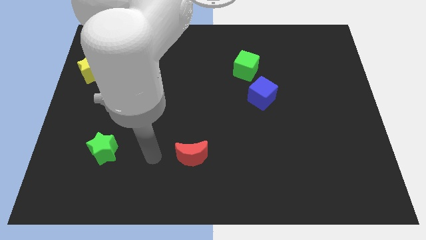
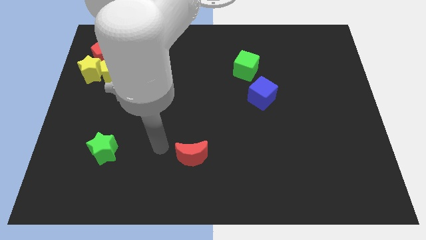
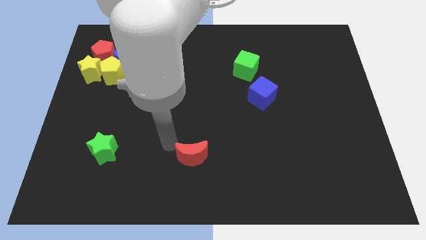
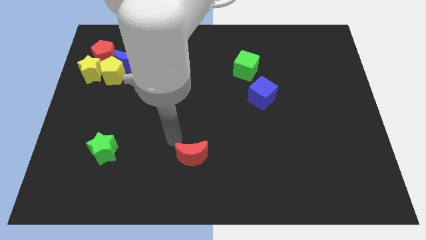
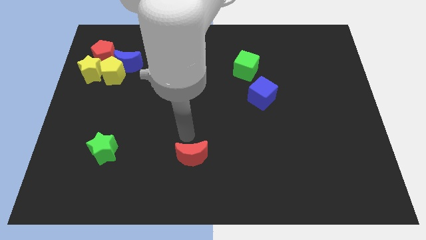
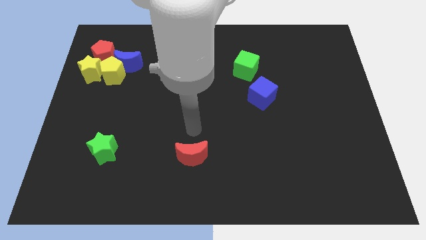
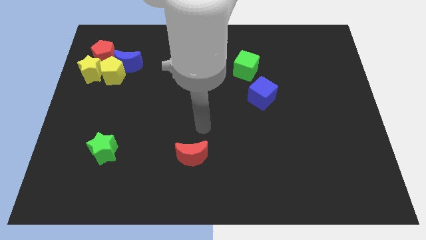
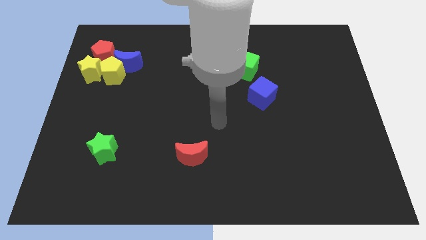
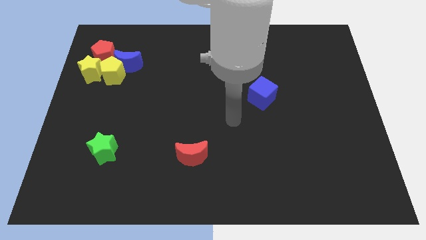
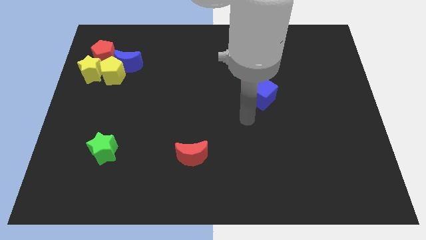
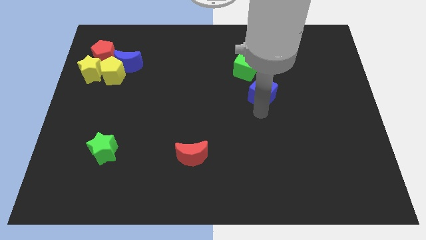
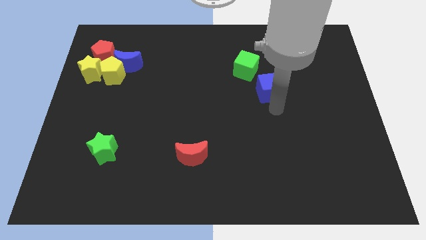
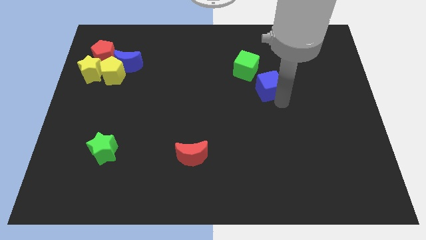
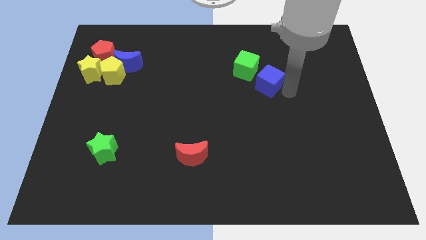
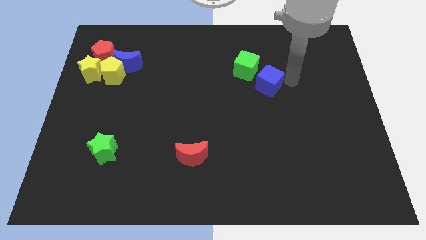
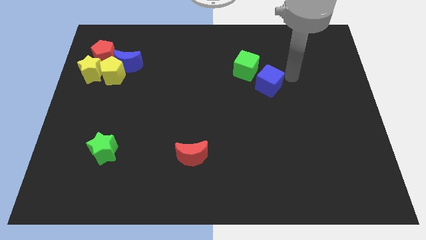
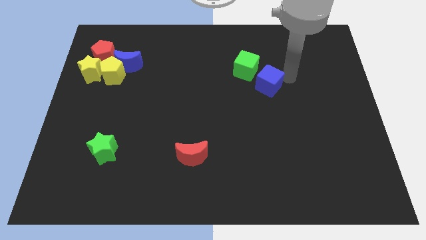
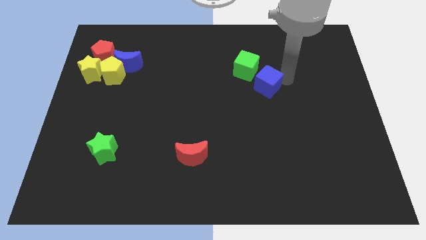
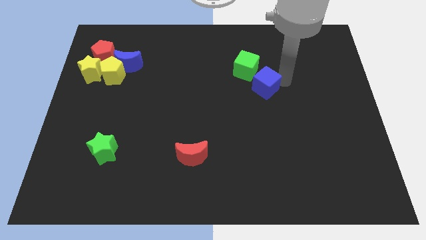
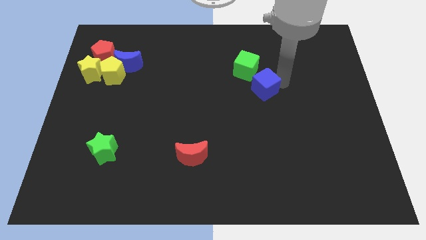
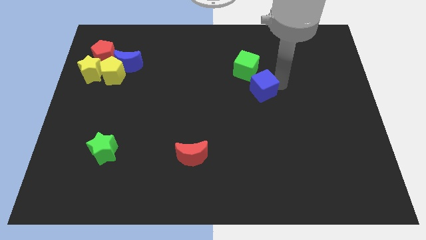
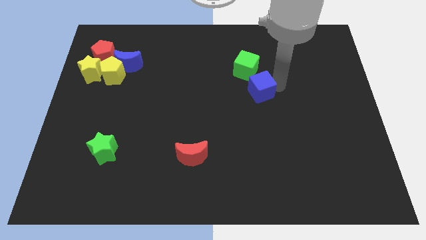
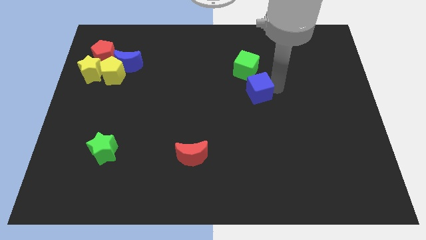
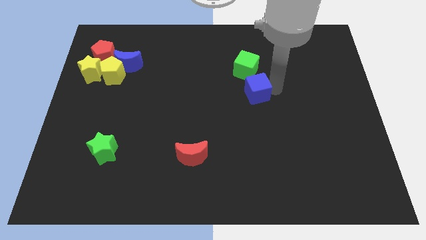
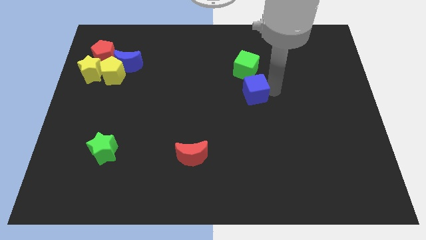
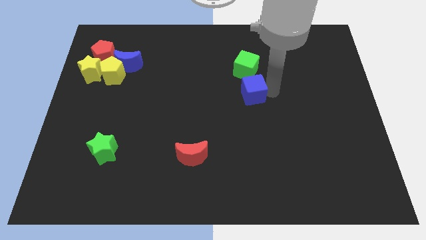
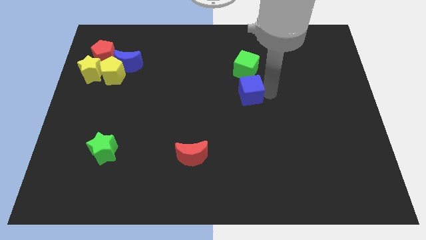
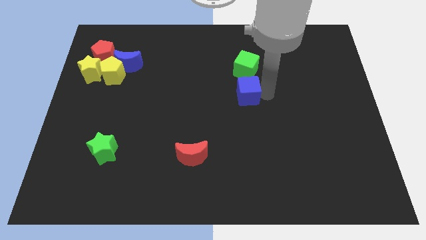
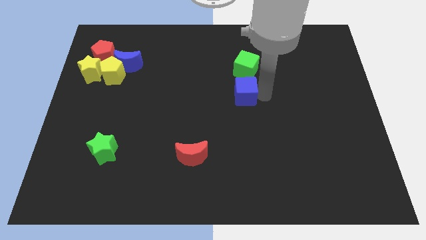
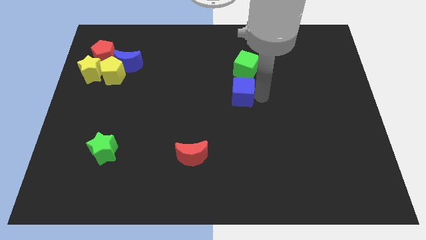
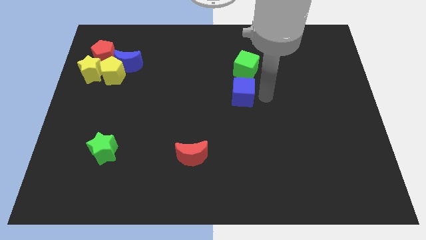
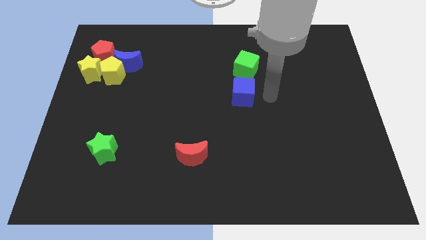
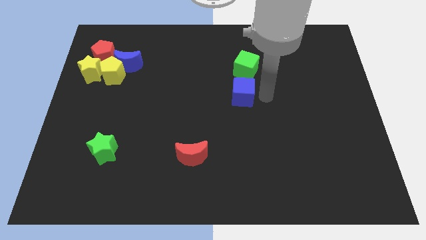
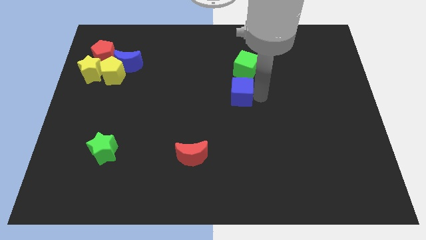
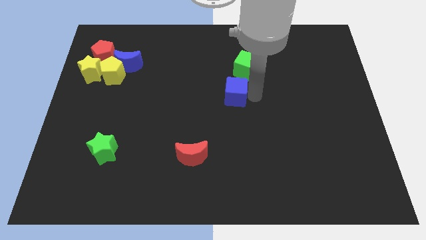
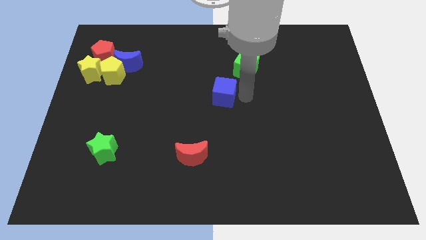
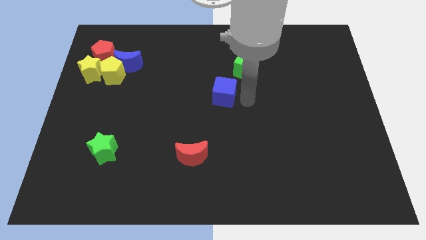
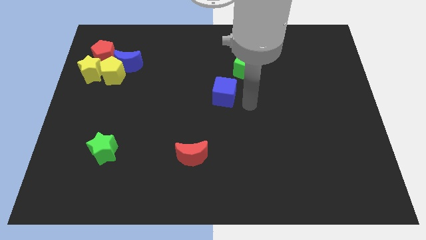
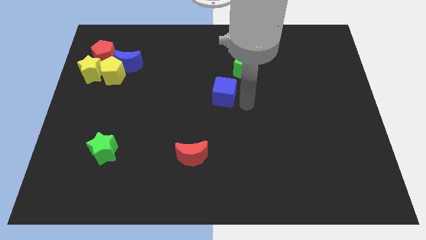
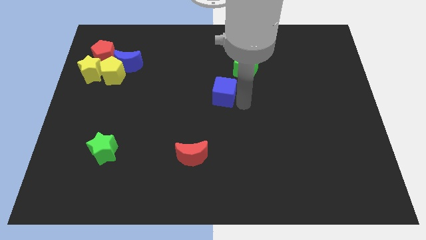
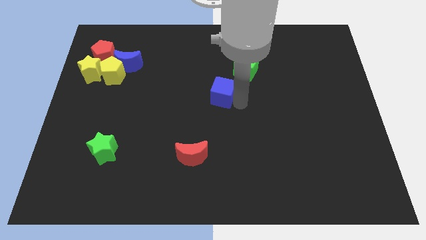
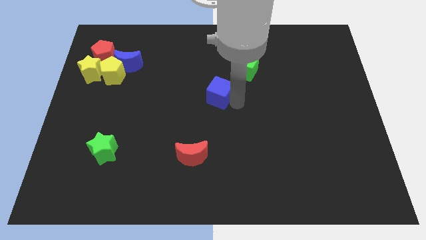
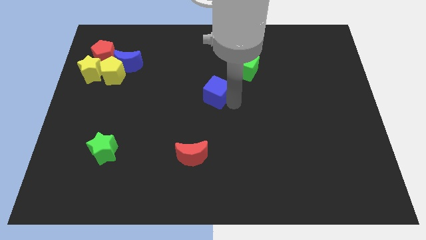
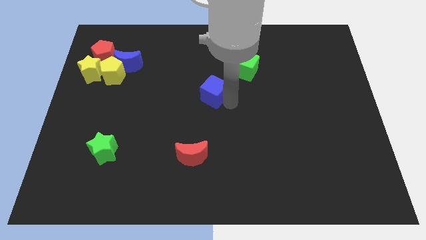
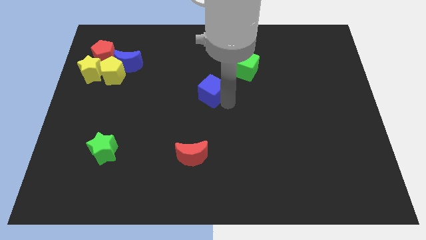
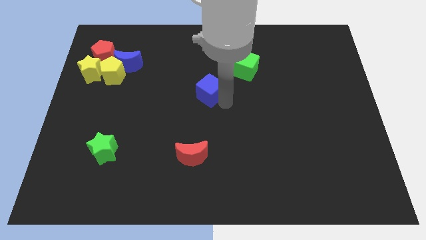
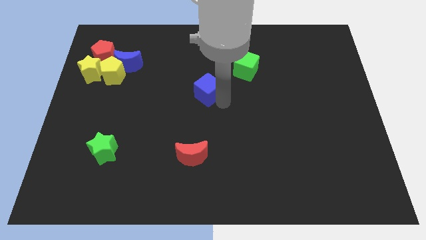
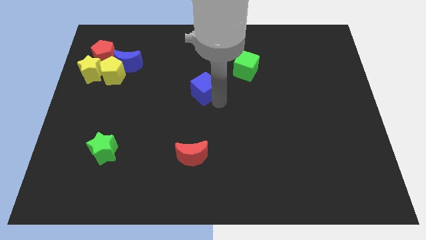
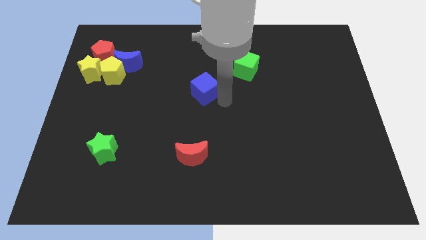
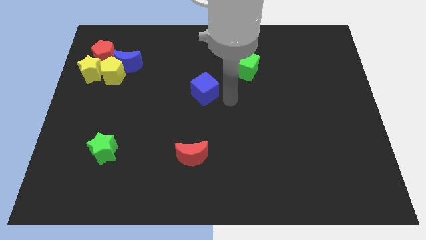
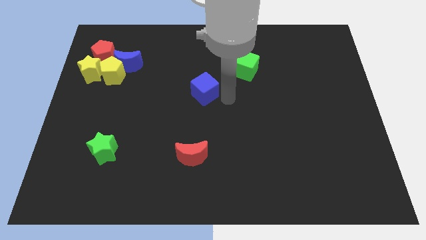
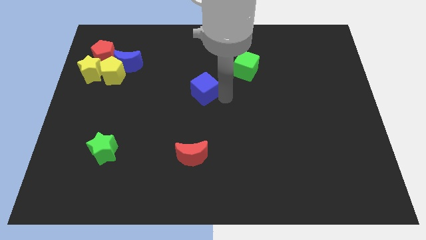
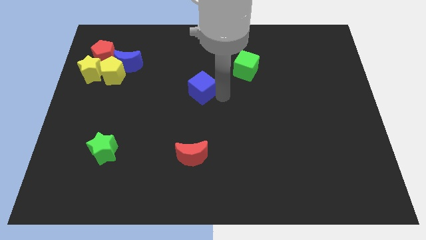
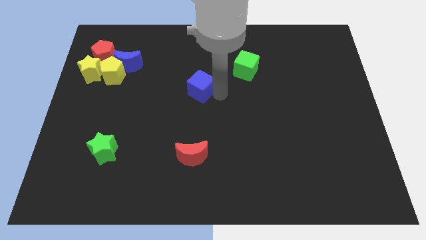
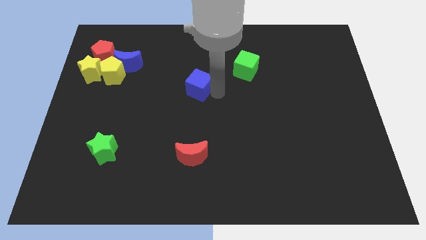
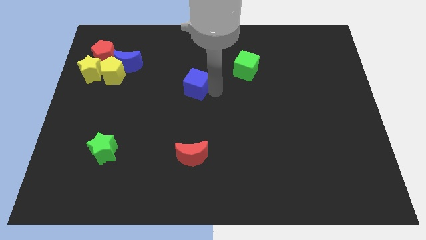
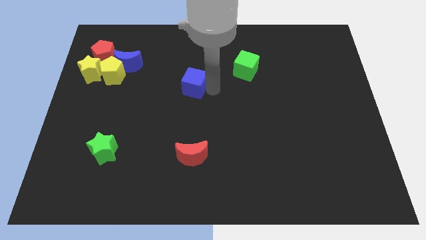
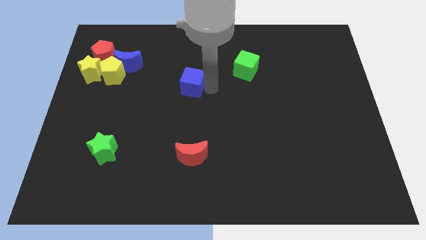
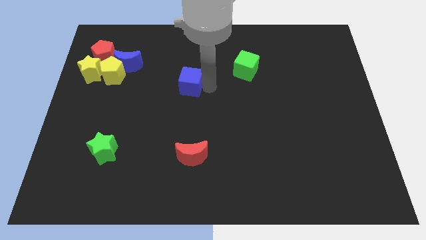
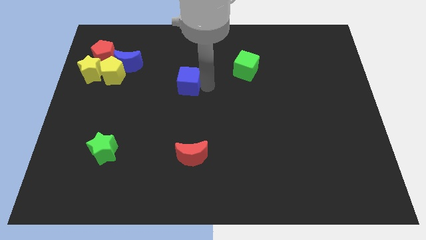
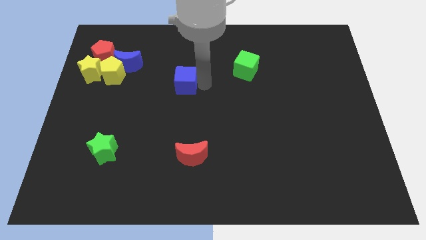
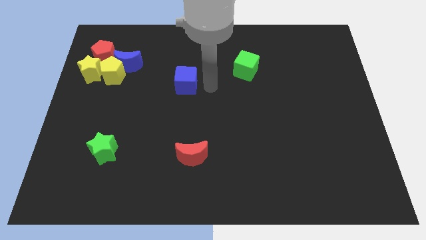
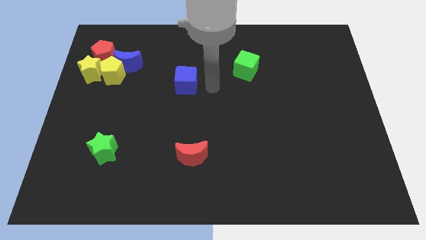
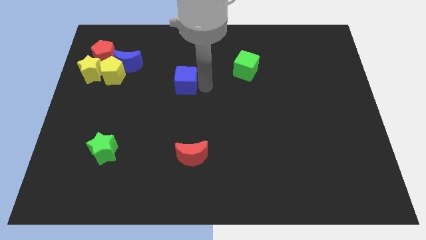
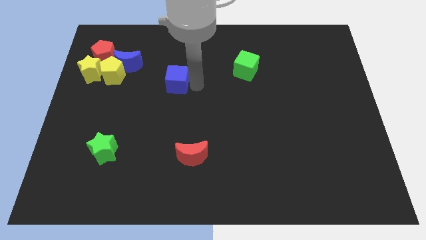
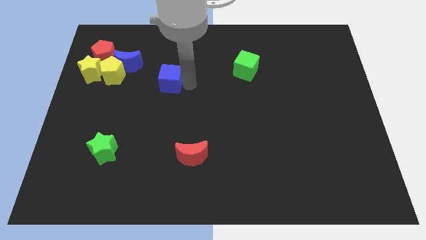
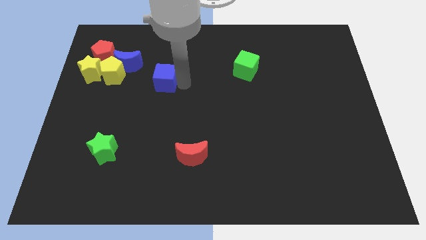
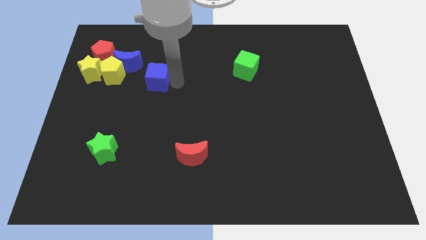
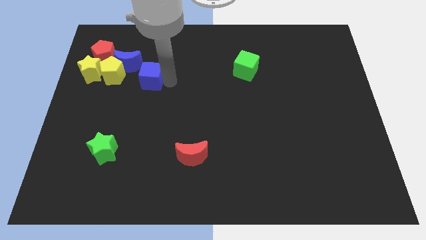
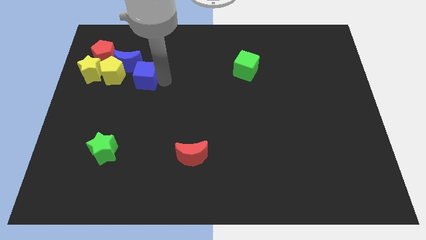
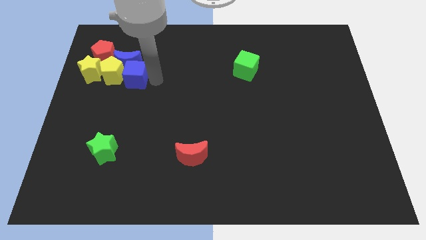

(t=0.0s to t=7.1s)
put the blue cube close to the yellow pentagon
